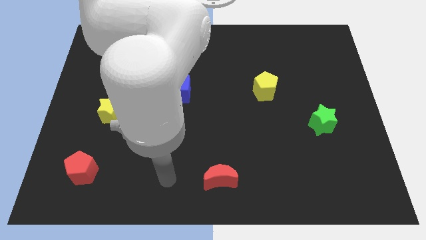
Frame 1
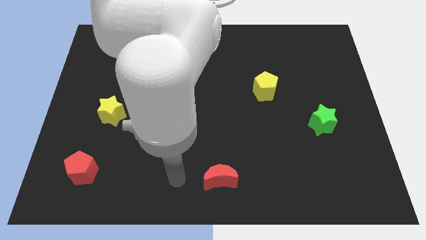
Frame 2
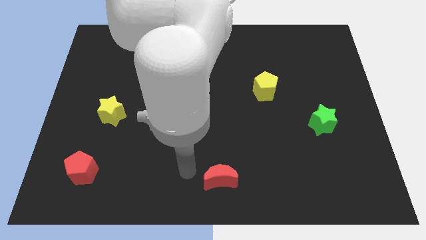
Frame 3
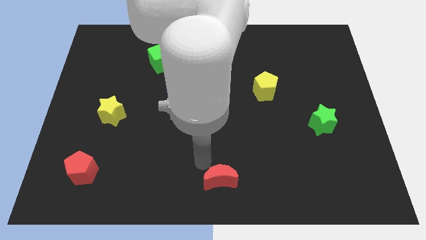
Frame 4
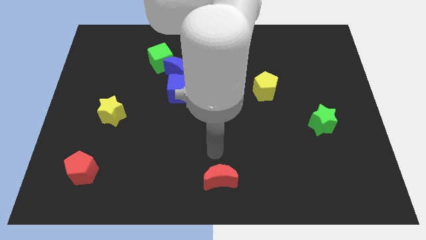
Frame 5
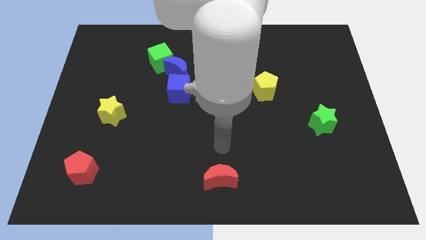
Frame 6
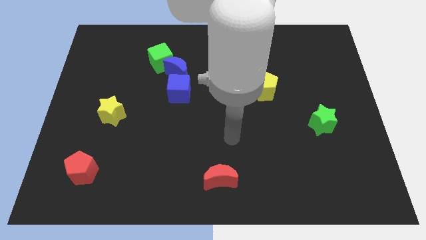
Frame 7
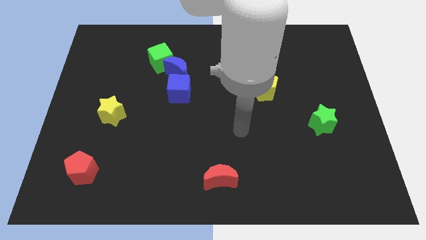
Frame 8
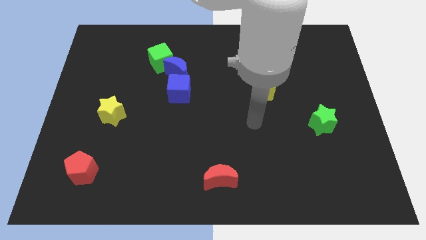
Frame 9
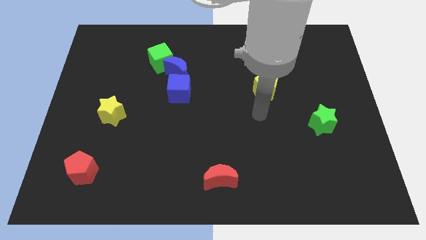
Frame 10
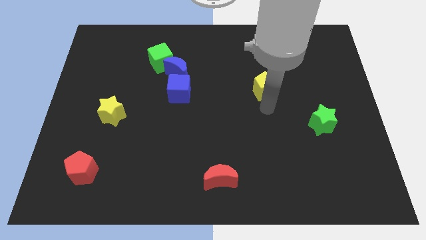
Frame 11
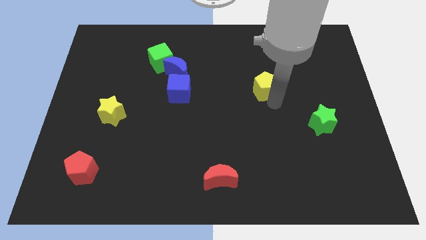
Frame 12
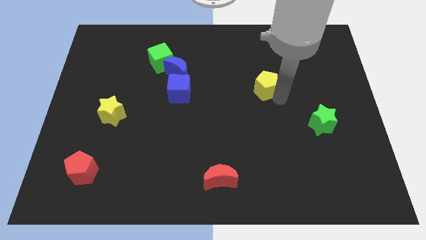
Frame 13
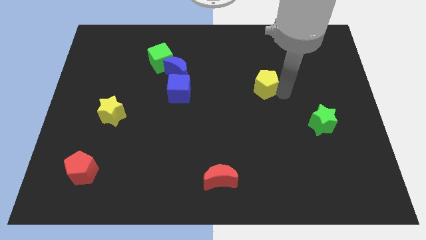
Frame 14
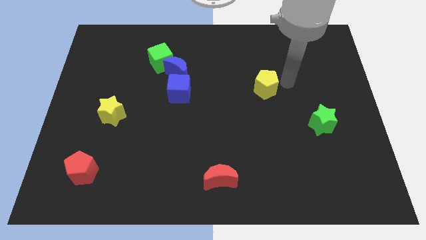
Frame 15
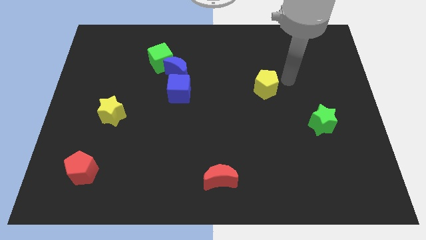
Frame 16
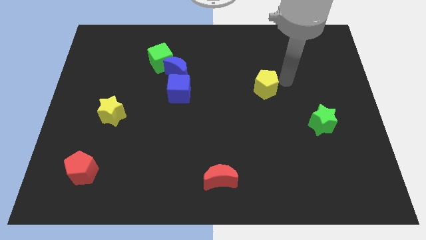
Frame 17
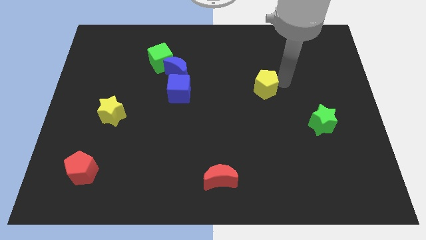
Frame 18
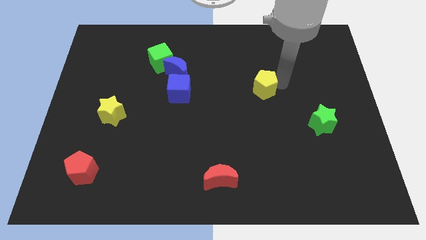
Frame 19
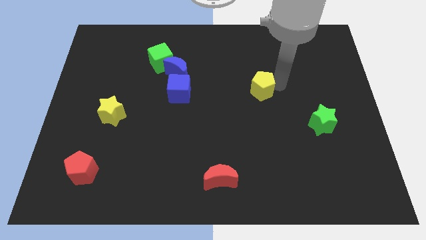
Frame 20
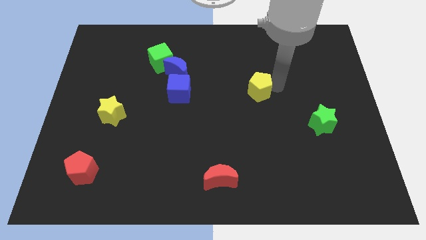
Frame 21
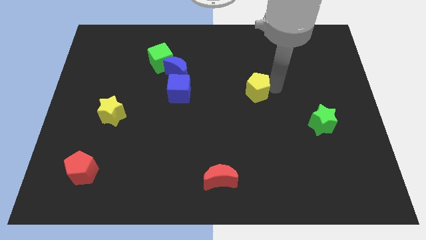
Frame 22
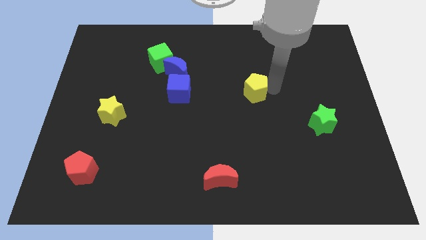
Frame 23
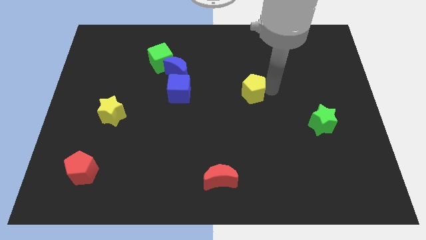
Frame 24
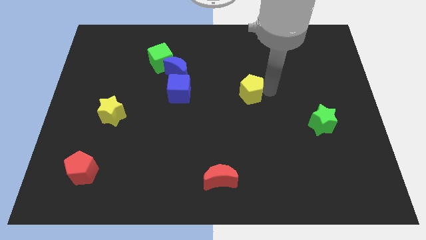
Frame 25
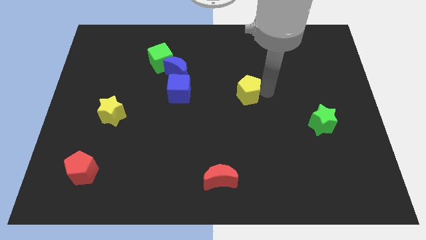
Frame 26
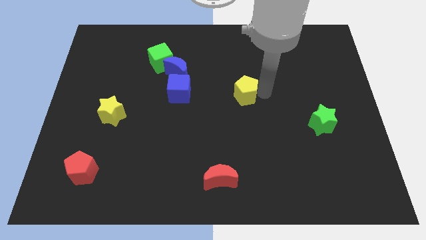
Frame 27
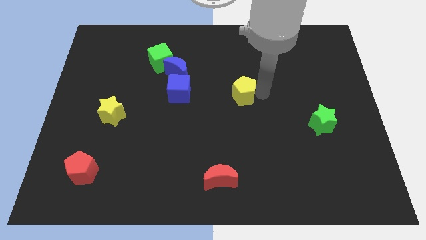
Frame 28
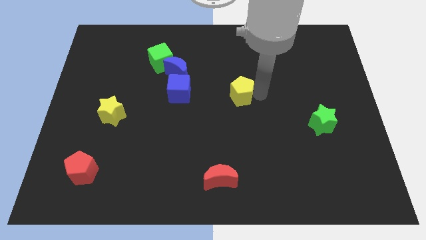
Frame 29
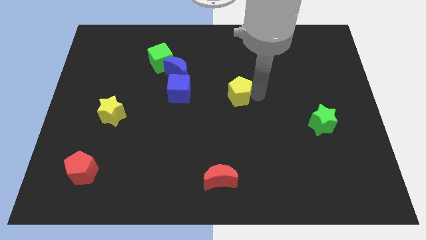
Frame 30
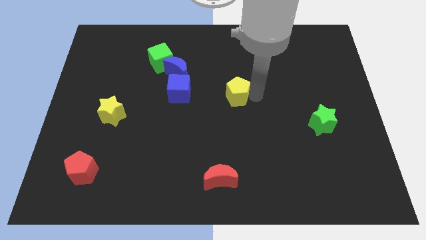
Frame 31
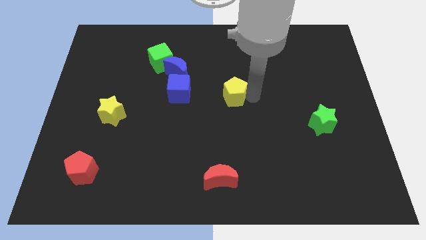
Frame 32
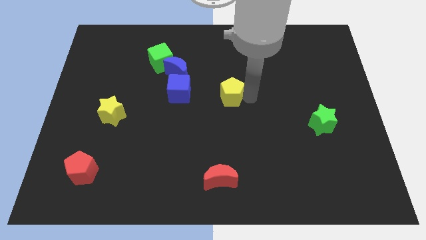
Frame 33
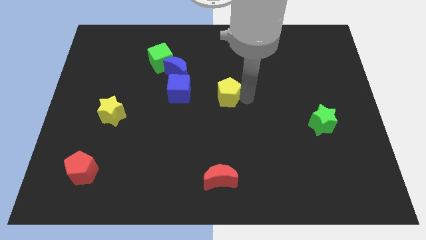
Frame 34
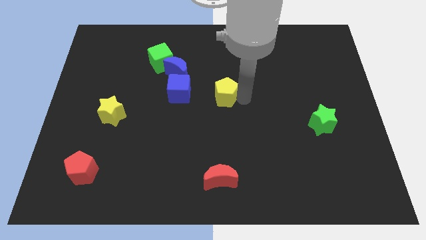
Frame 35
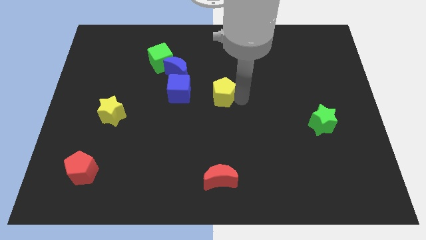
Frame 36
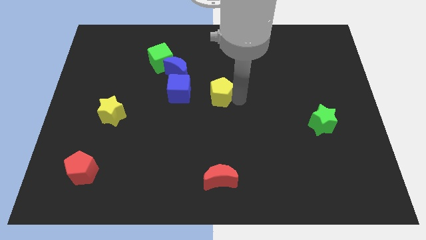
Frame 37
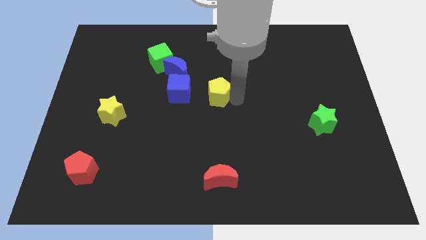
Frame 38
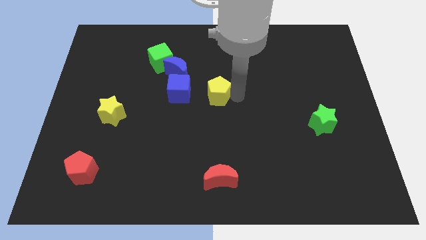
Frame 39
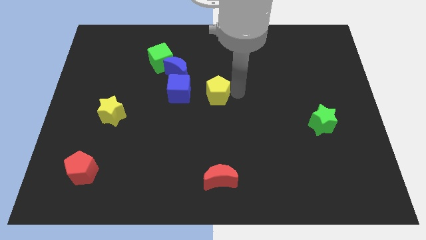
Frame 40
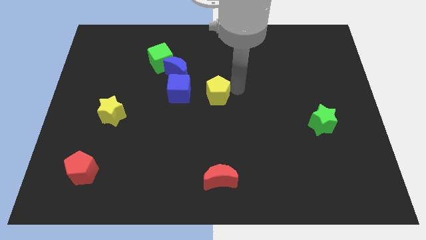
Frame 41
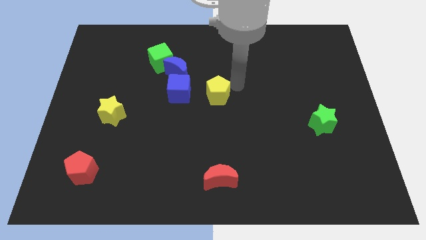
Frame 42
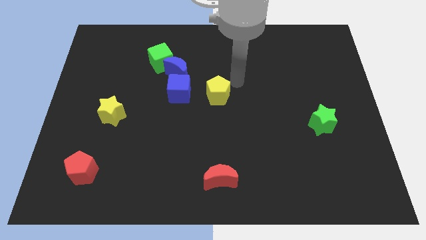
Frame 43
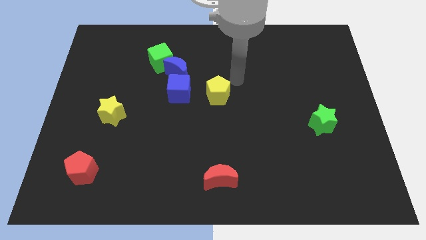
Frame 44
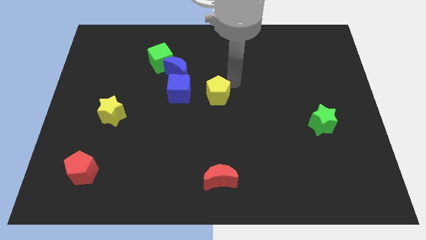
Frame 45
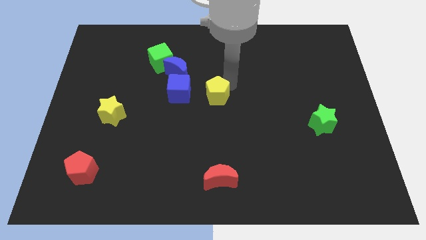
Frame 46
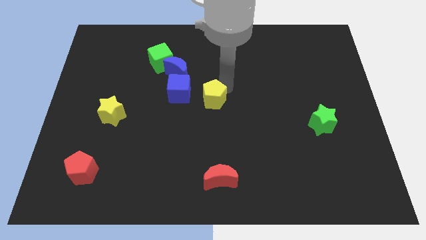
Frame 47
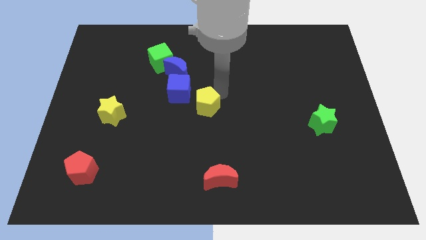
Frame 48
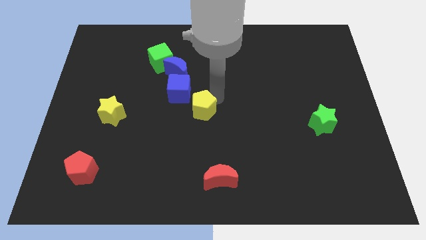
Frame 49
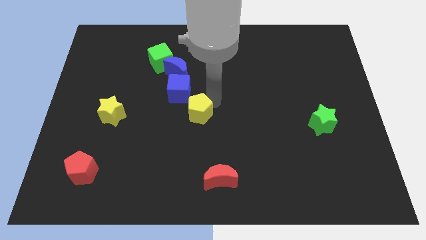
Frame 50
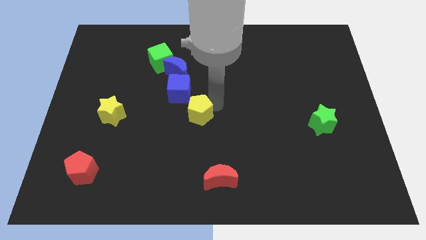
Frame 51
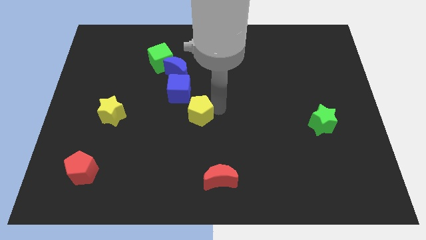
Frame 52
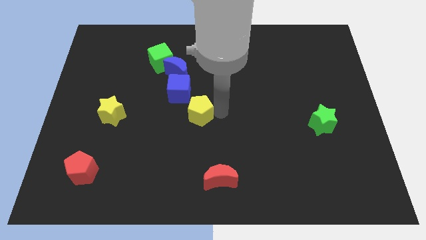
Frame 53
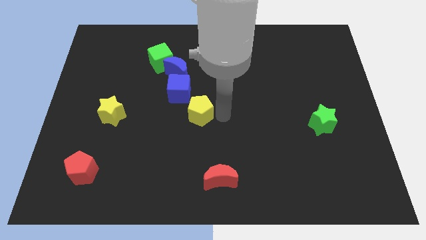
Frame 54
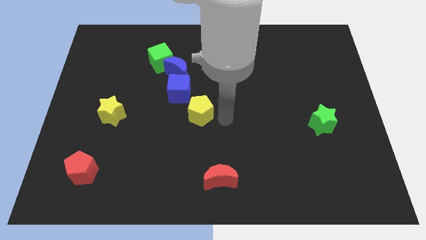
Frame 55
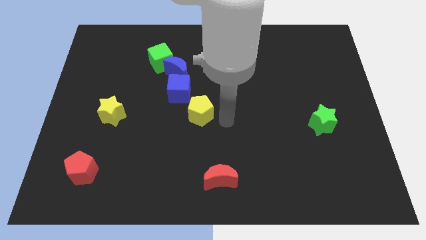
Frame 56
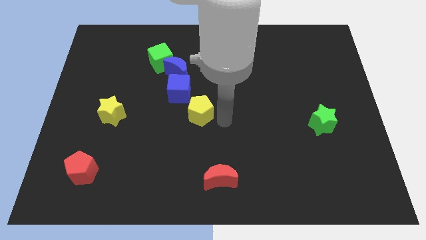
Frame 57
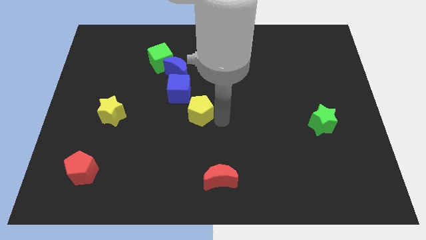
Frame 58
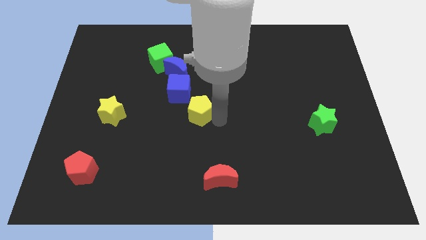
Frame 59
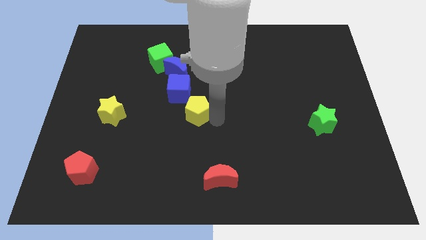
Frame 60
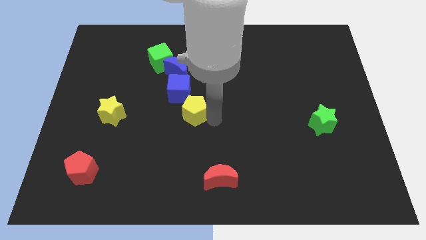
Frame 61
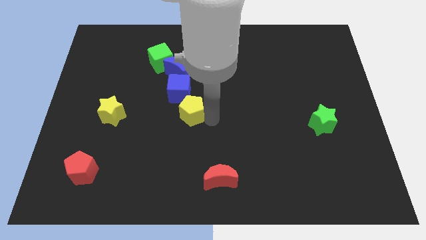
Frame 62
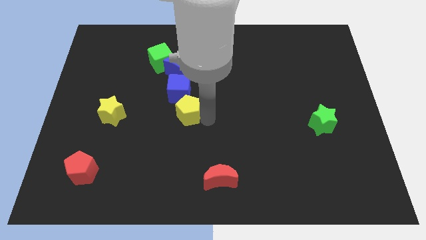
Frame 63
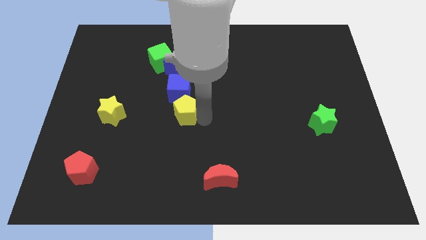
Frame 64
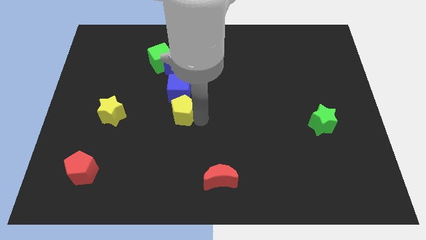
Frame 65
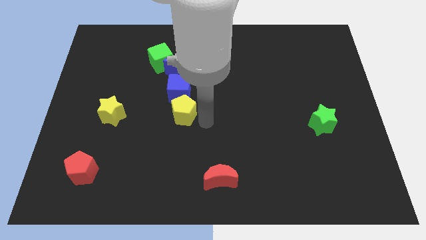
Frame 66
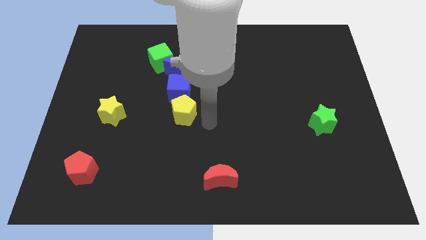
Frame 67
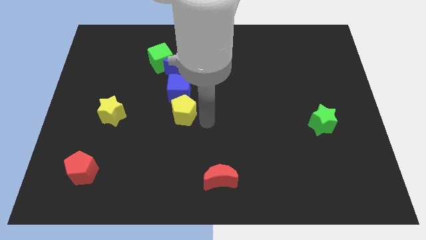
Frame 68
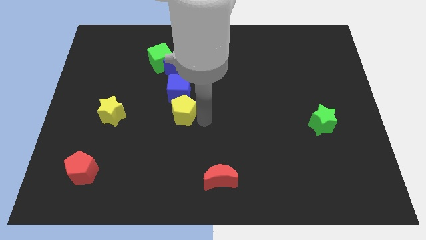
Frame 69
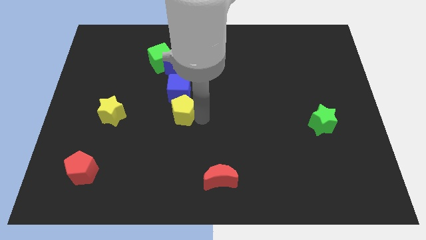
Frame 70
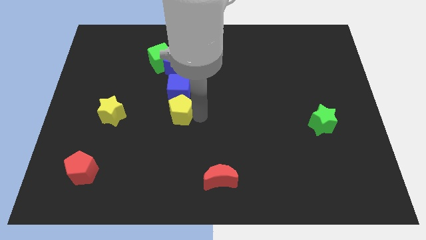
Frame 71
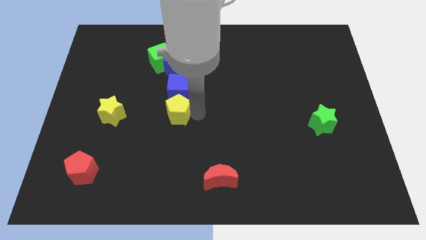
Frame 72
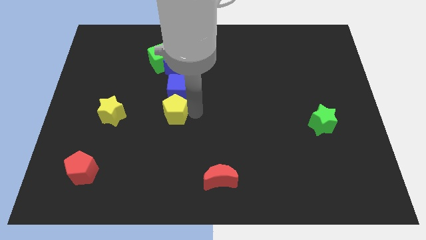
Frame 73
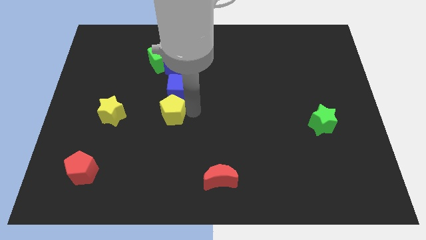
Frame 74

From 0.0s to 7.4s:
move the yellow pentagon to the left

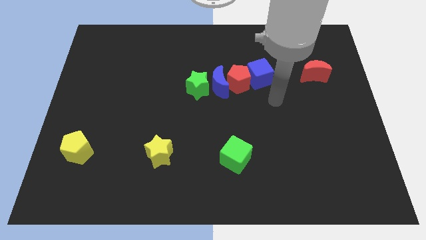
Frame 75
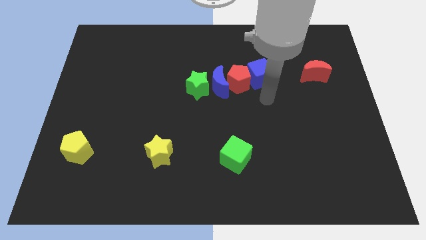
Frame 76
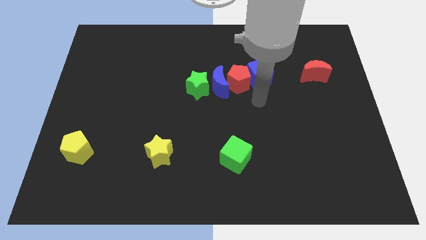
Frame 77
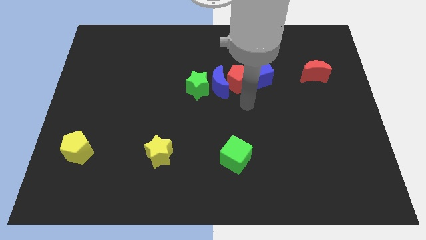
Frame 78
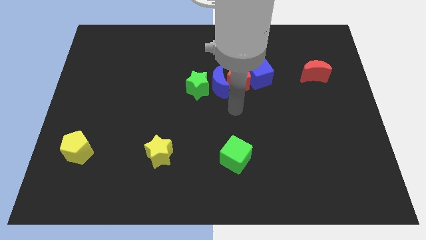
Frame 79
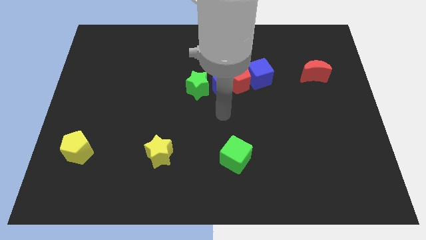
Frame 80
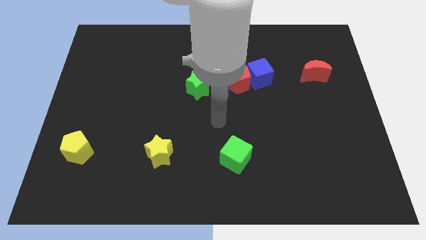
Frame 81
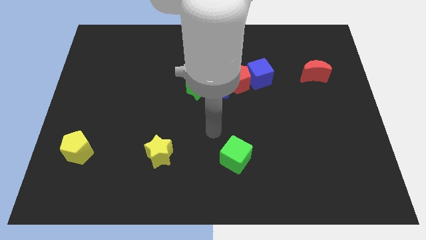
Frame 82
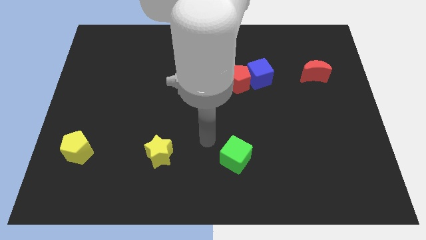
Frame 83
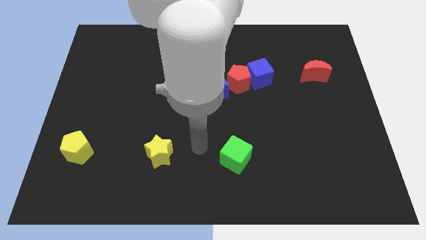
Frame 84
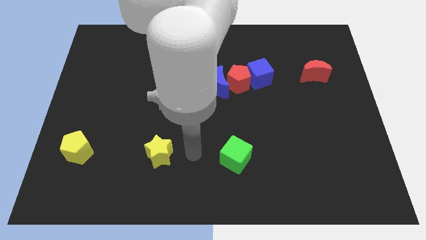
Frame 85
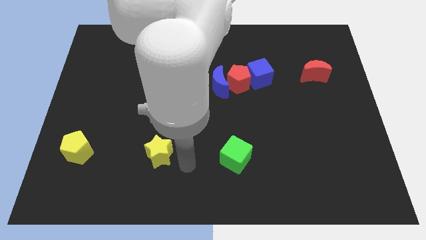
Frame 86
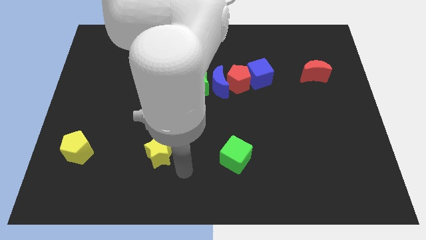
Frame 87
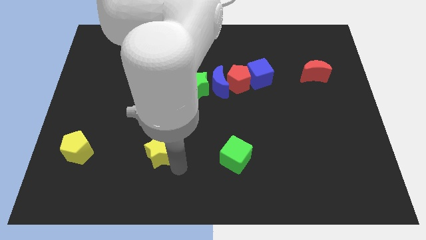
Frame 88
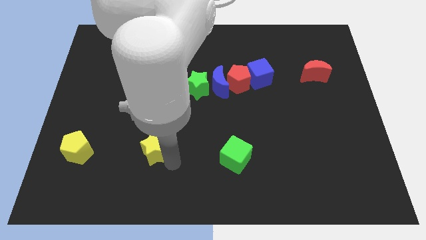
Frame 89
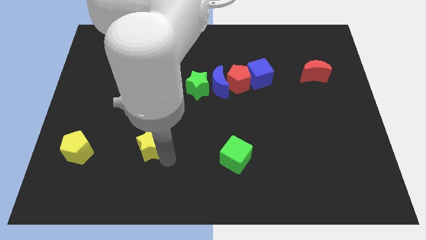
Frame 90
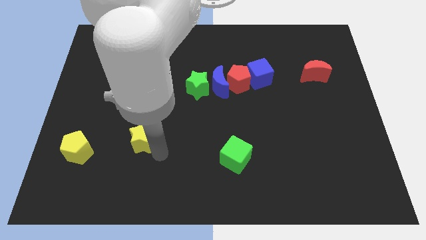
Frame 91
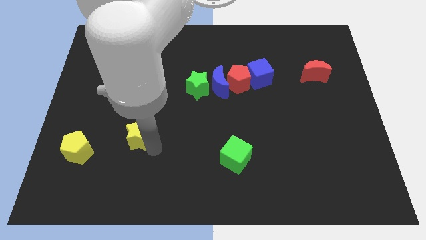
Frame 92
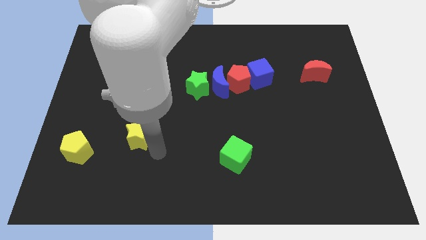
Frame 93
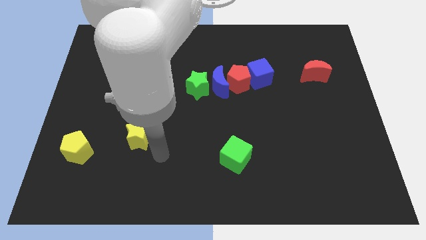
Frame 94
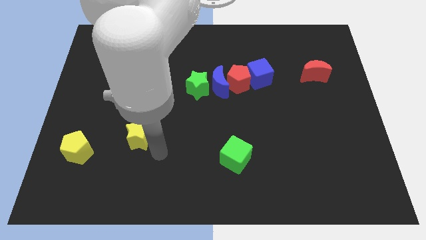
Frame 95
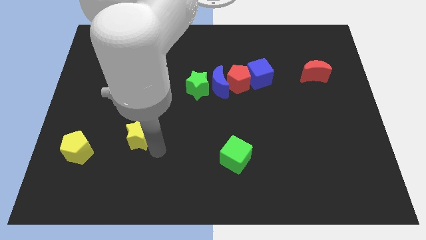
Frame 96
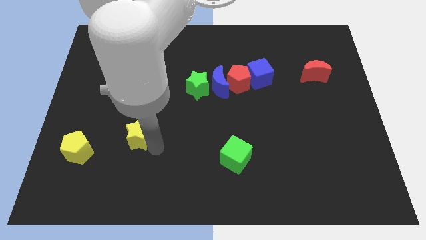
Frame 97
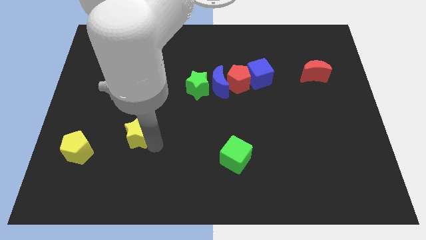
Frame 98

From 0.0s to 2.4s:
slide the yellow star a bit upwards and left diagonally
